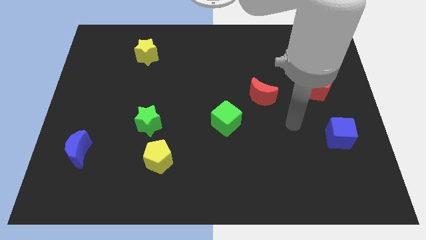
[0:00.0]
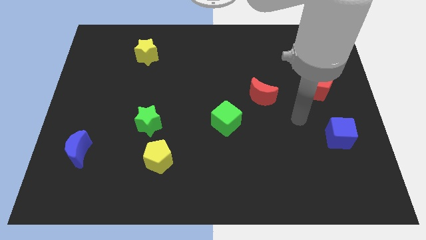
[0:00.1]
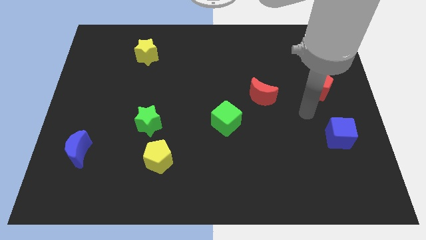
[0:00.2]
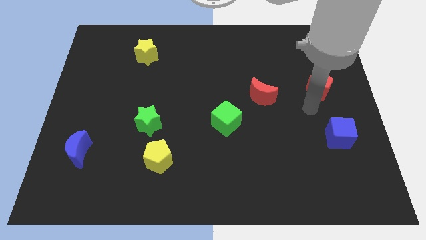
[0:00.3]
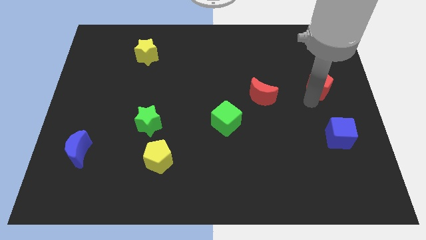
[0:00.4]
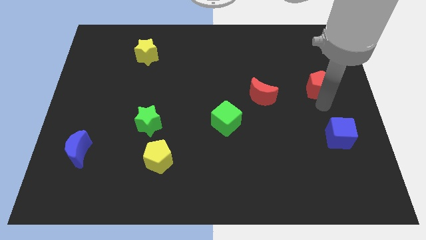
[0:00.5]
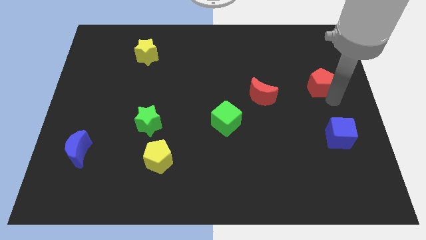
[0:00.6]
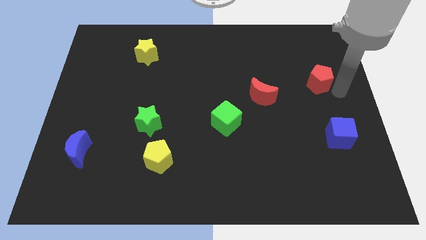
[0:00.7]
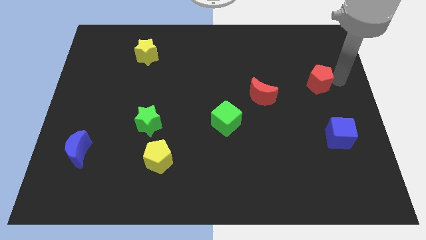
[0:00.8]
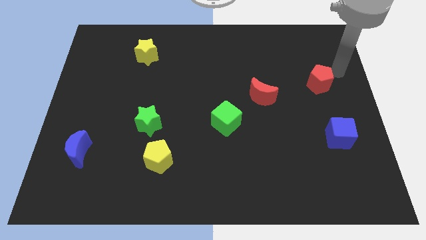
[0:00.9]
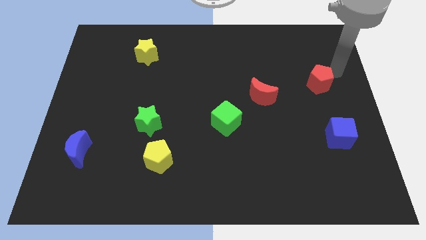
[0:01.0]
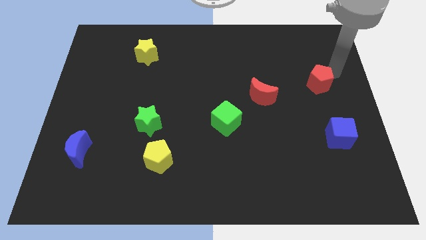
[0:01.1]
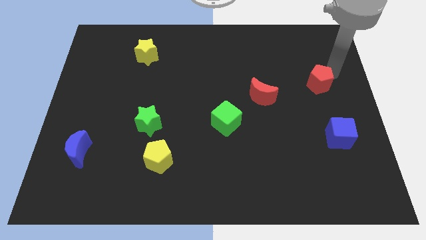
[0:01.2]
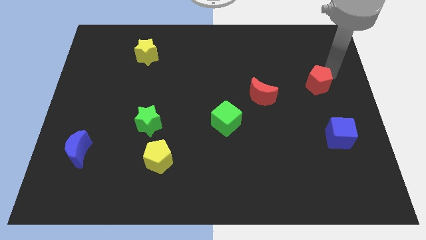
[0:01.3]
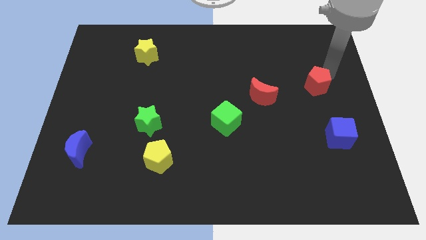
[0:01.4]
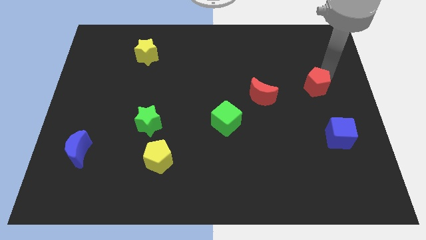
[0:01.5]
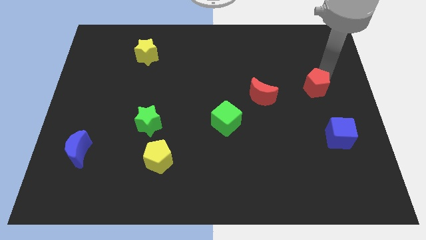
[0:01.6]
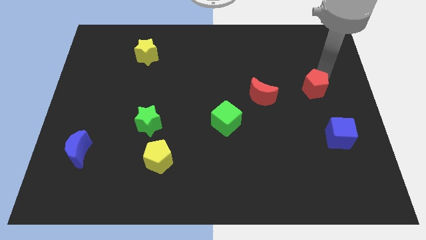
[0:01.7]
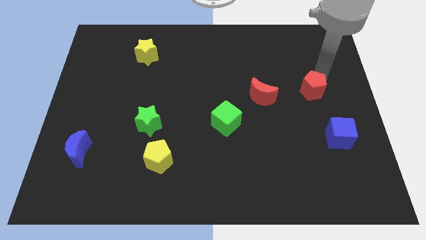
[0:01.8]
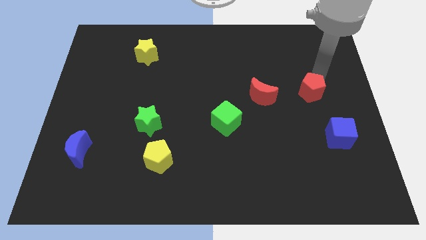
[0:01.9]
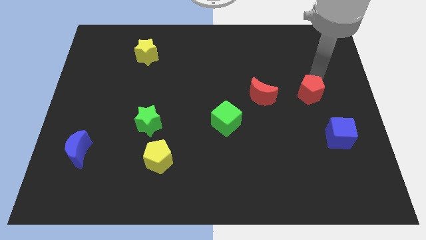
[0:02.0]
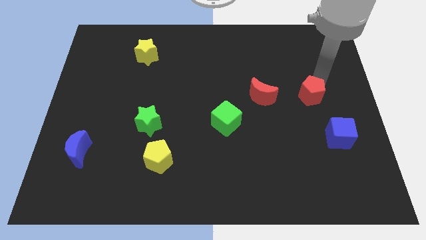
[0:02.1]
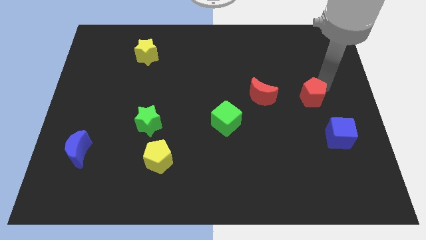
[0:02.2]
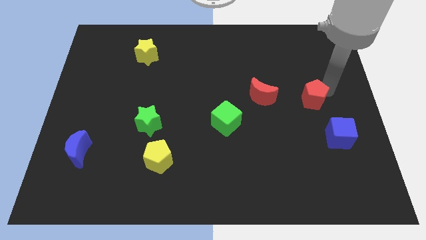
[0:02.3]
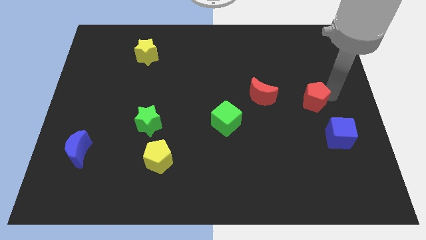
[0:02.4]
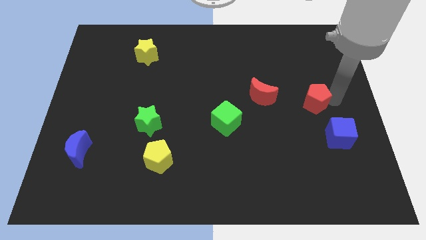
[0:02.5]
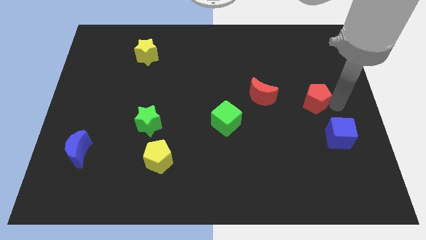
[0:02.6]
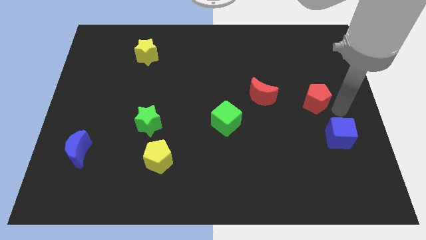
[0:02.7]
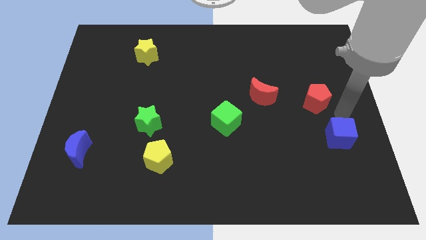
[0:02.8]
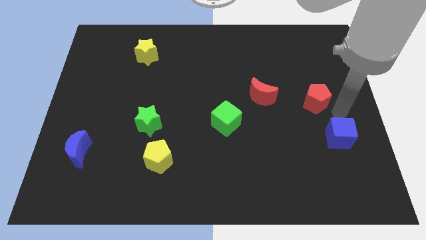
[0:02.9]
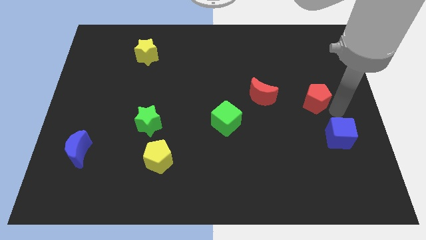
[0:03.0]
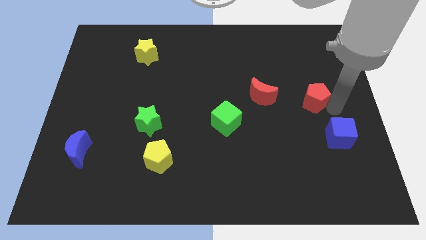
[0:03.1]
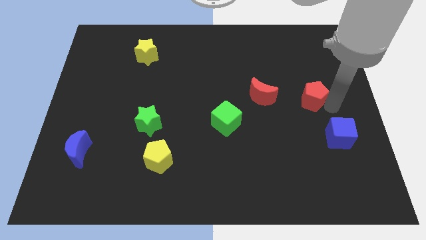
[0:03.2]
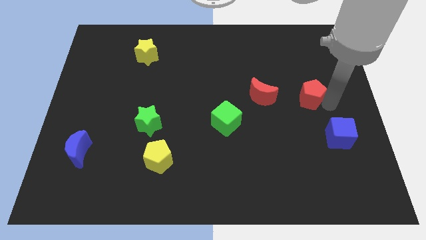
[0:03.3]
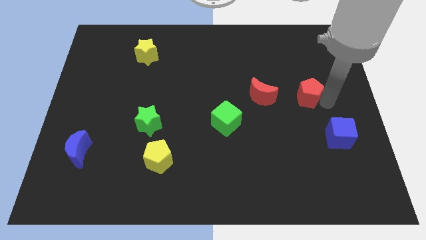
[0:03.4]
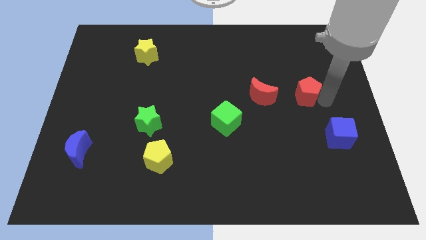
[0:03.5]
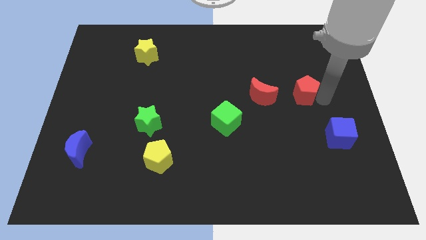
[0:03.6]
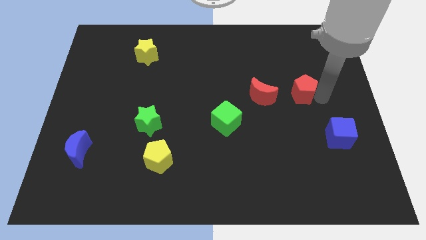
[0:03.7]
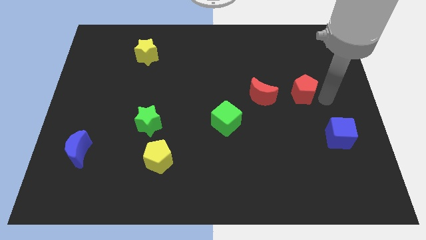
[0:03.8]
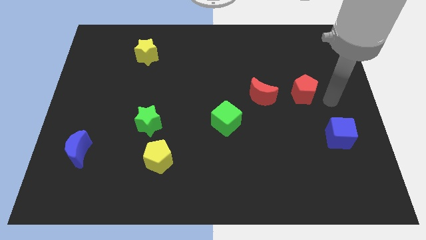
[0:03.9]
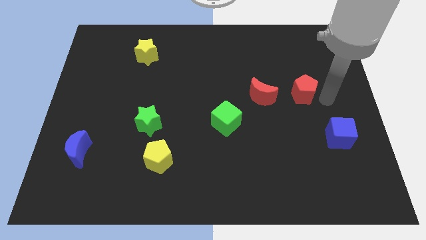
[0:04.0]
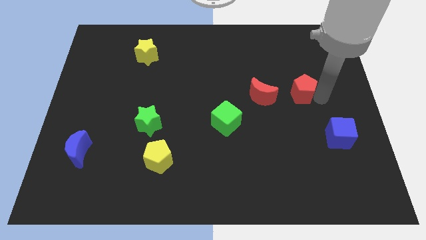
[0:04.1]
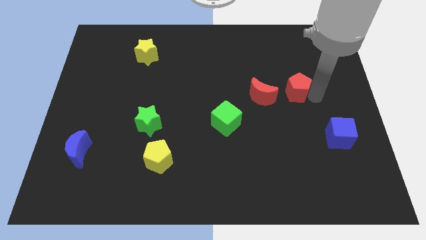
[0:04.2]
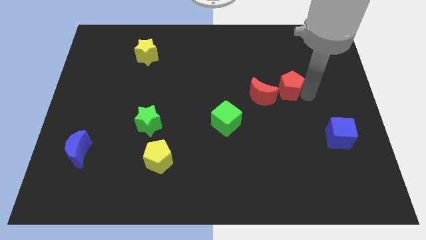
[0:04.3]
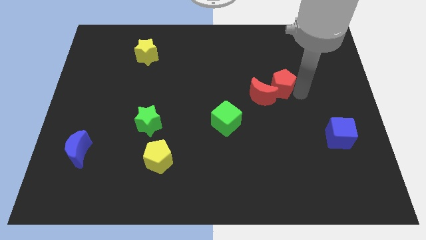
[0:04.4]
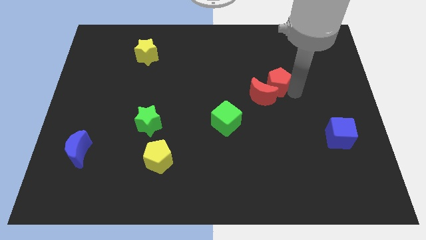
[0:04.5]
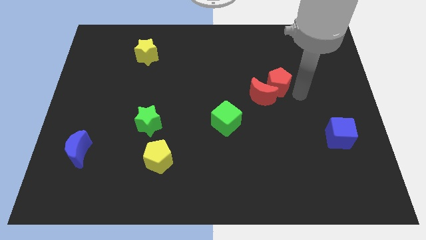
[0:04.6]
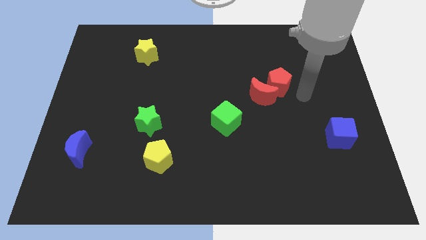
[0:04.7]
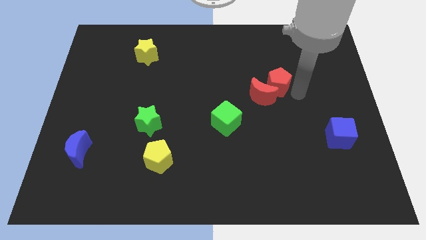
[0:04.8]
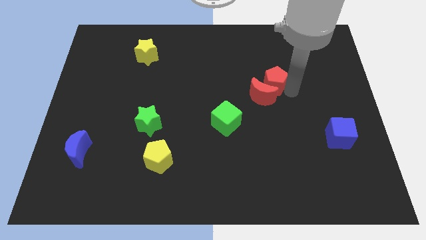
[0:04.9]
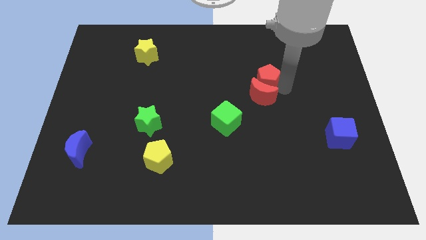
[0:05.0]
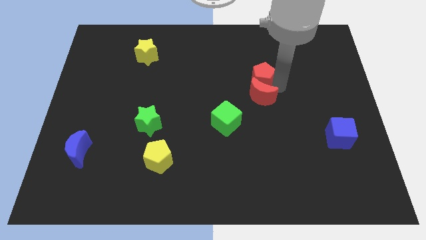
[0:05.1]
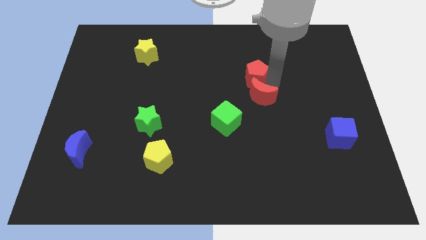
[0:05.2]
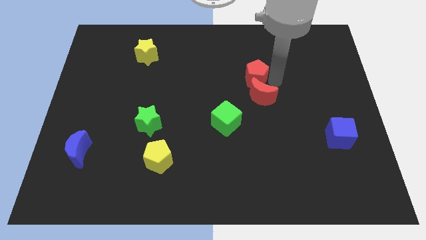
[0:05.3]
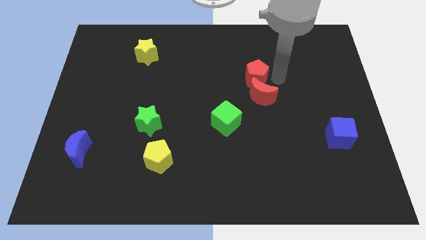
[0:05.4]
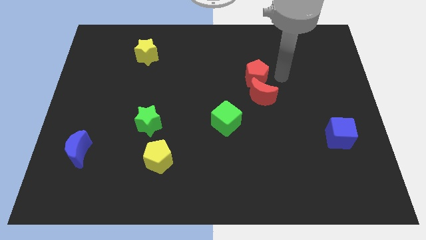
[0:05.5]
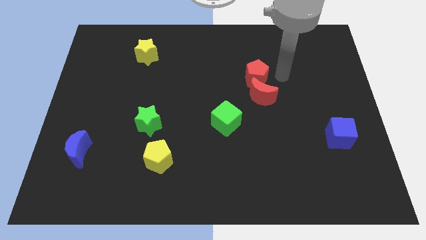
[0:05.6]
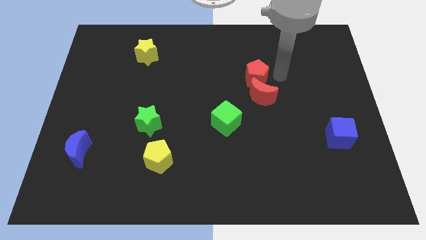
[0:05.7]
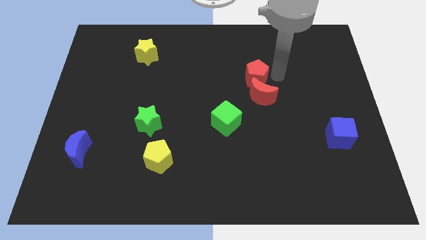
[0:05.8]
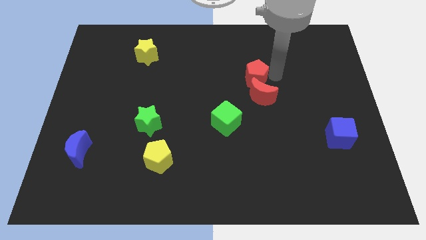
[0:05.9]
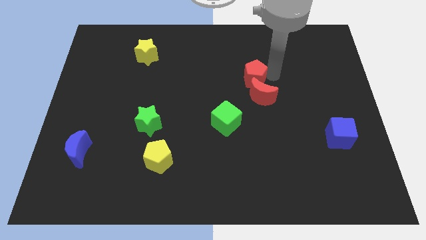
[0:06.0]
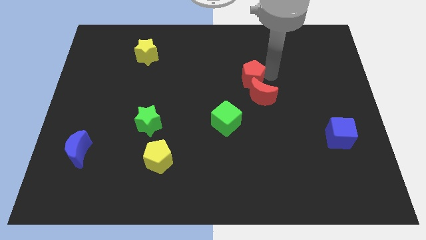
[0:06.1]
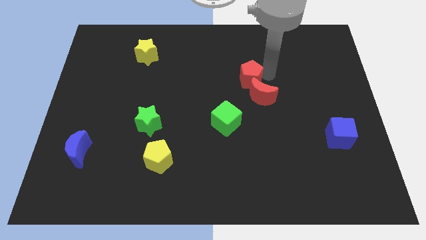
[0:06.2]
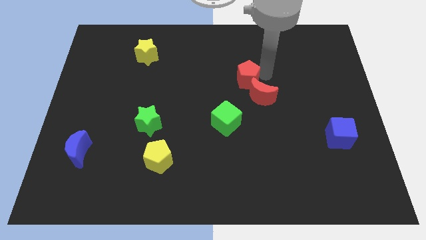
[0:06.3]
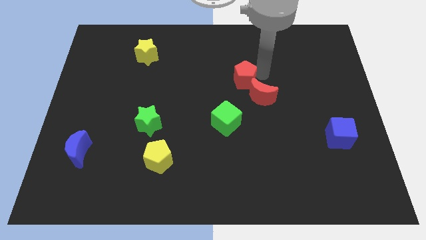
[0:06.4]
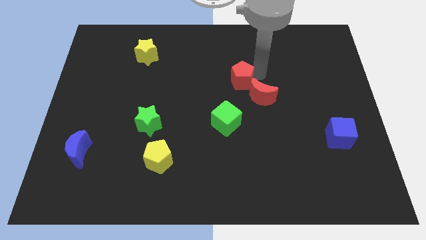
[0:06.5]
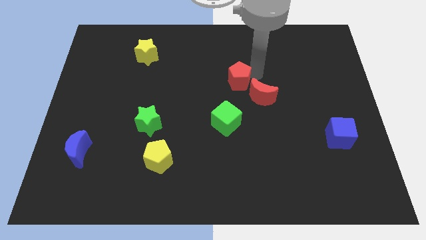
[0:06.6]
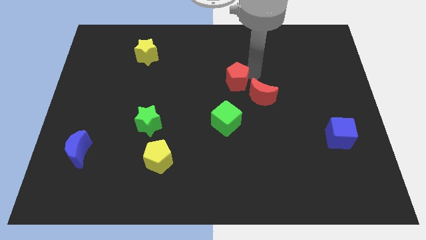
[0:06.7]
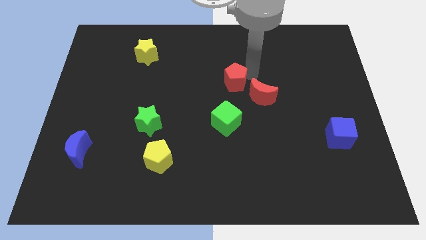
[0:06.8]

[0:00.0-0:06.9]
push the red pentagon left

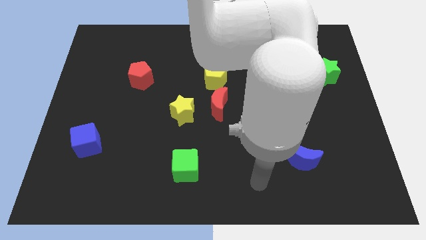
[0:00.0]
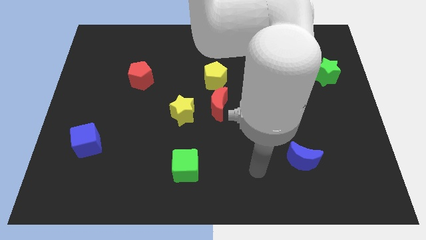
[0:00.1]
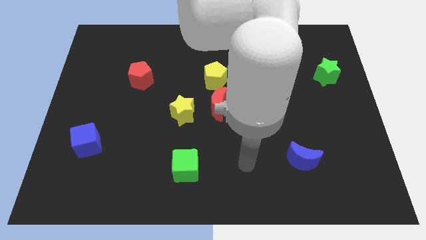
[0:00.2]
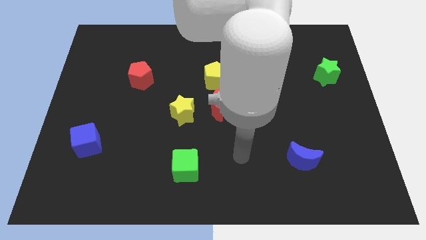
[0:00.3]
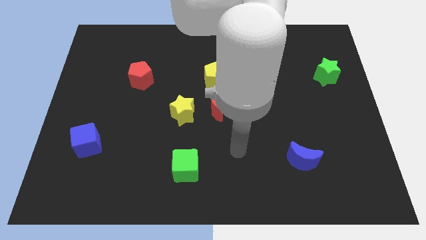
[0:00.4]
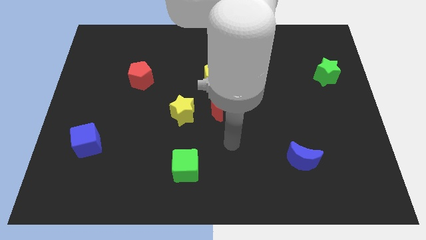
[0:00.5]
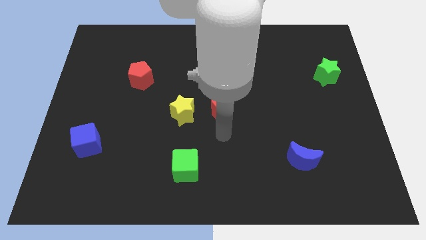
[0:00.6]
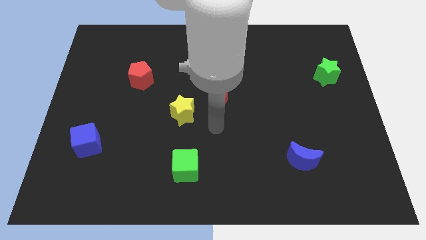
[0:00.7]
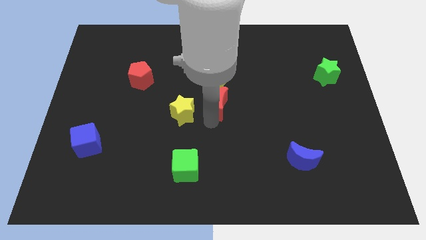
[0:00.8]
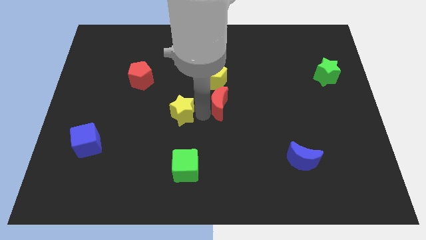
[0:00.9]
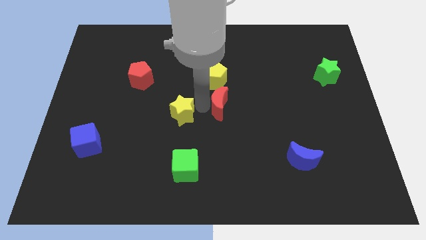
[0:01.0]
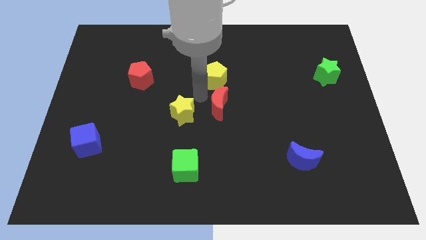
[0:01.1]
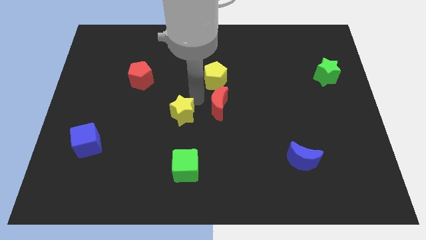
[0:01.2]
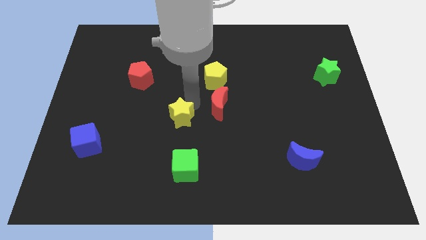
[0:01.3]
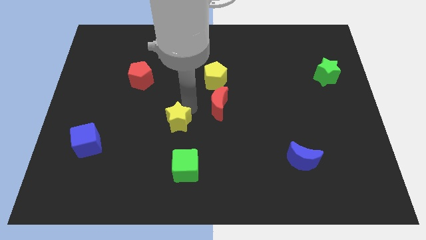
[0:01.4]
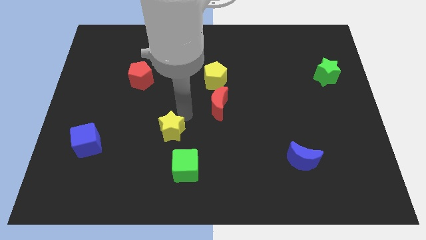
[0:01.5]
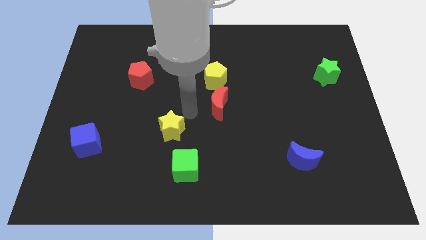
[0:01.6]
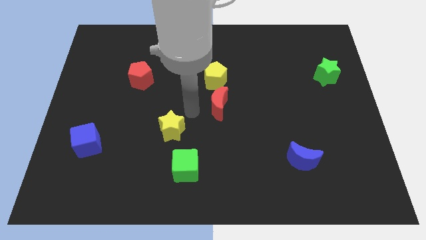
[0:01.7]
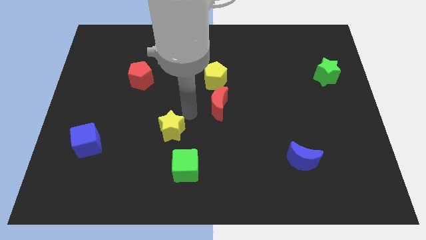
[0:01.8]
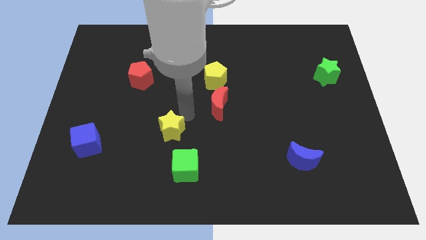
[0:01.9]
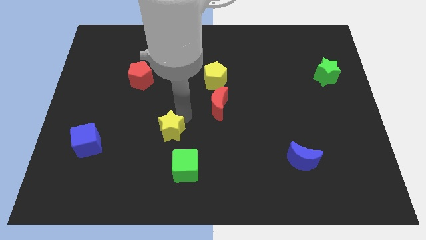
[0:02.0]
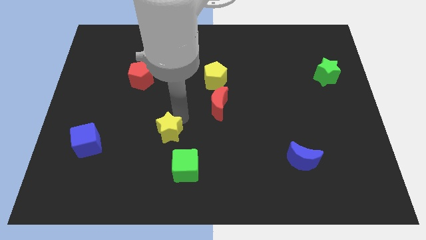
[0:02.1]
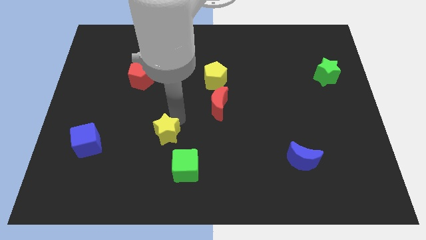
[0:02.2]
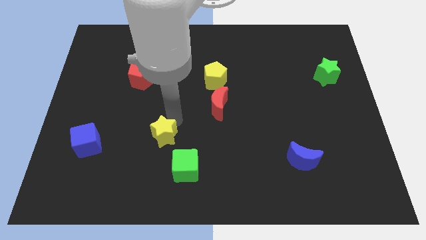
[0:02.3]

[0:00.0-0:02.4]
slide the yellow star a little downwards and then to the left
